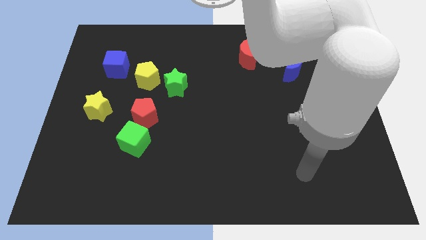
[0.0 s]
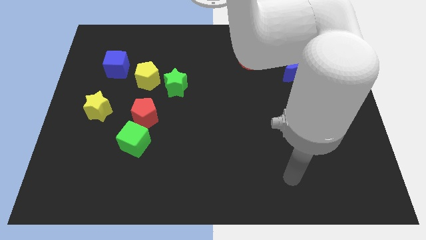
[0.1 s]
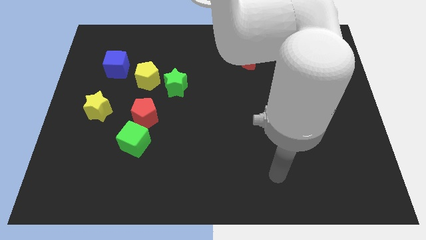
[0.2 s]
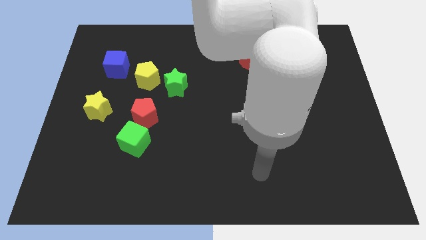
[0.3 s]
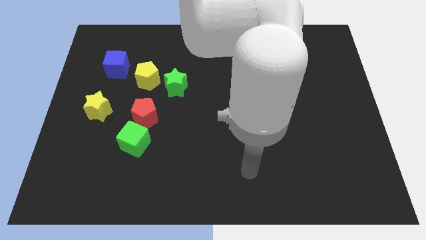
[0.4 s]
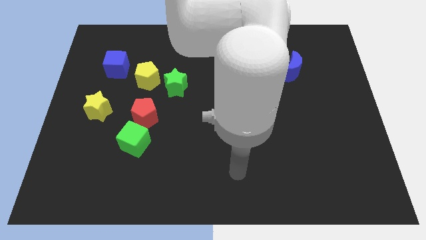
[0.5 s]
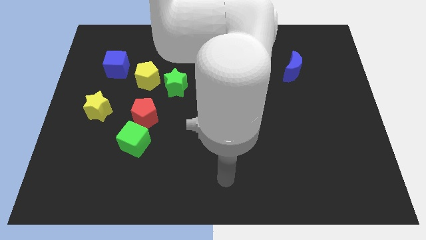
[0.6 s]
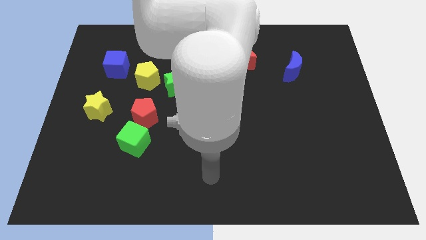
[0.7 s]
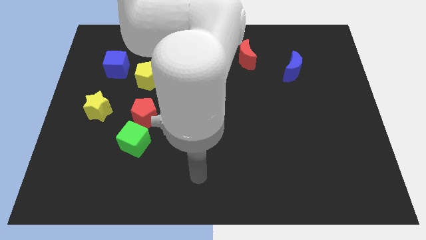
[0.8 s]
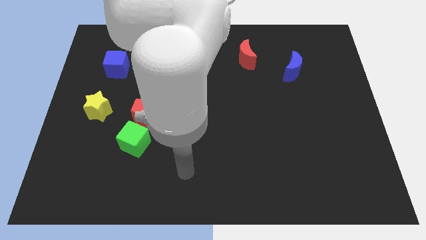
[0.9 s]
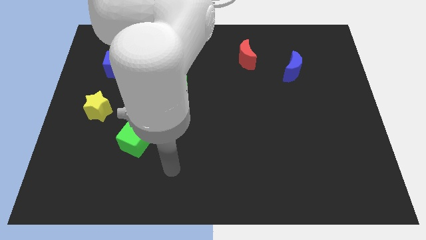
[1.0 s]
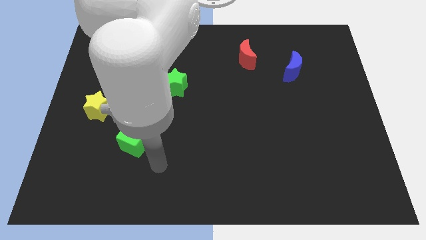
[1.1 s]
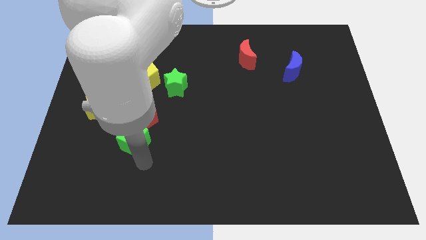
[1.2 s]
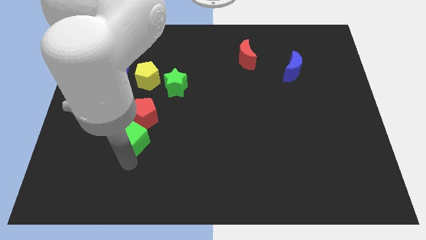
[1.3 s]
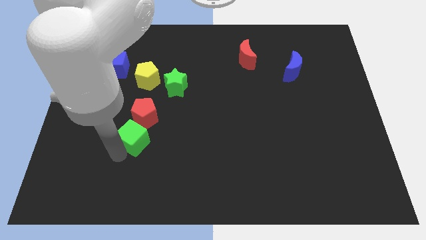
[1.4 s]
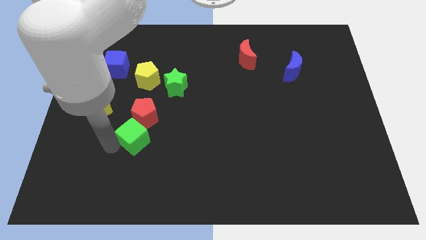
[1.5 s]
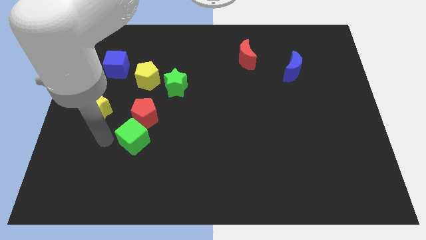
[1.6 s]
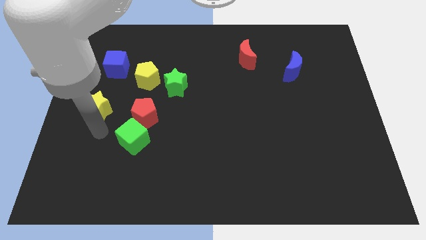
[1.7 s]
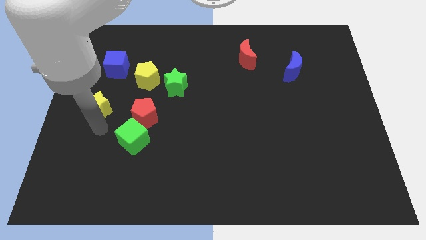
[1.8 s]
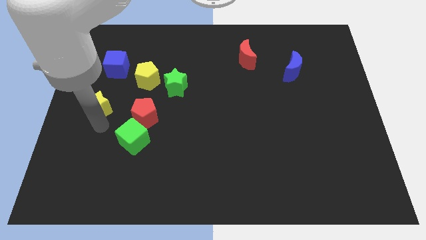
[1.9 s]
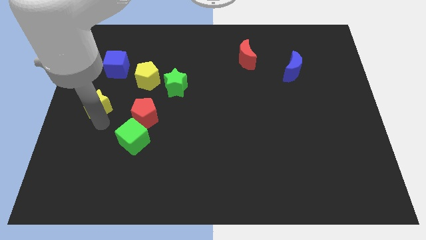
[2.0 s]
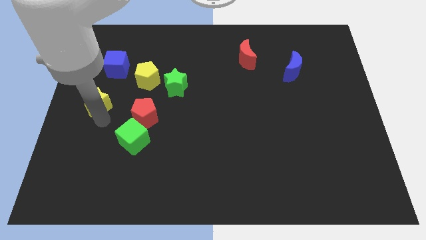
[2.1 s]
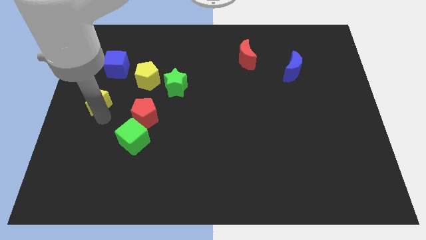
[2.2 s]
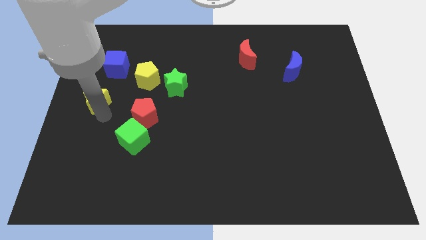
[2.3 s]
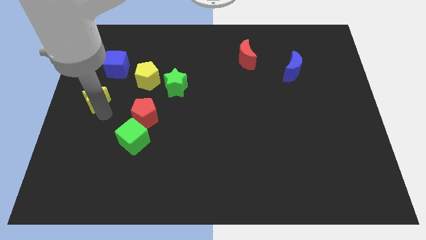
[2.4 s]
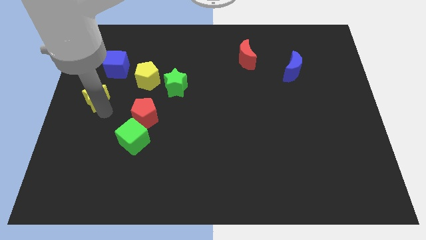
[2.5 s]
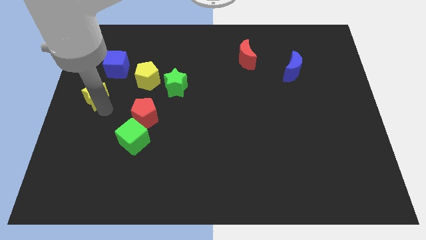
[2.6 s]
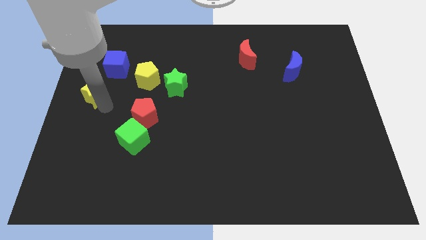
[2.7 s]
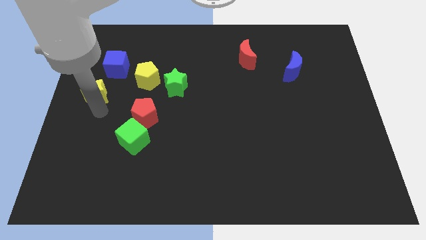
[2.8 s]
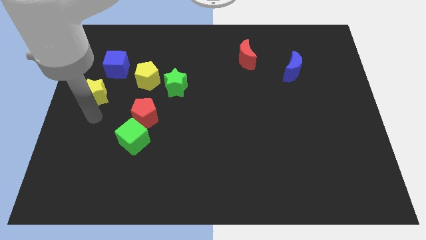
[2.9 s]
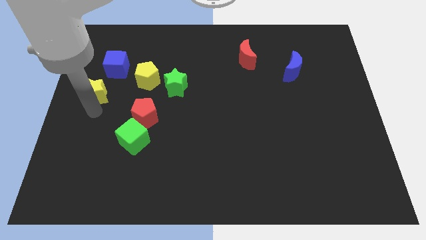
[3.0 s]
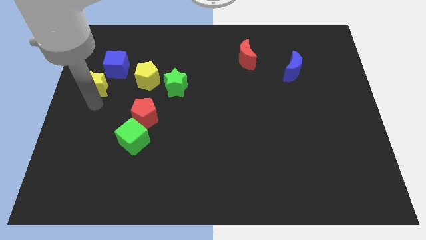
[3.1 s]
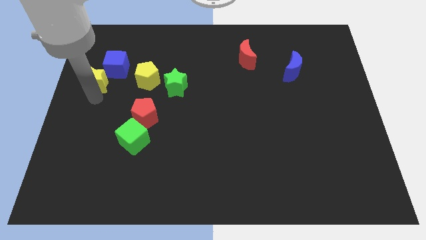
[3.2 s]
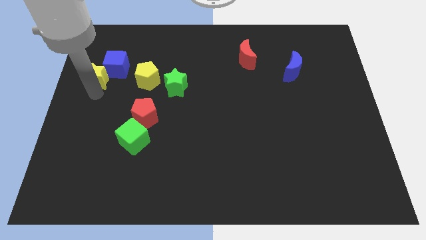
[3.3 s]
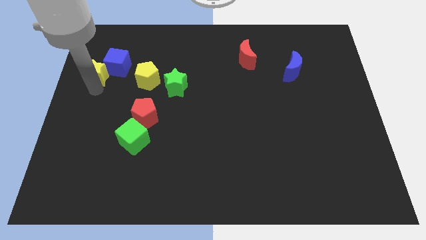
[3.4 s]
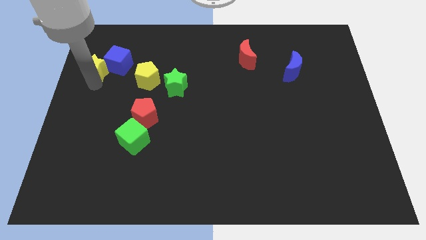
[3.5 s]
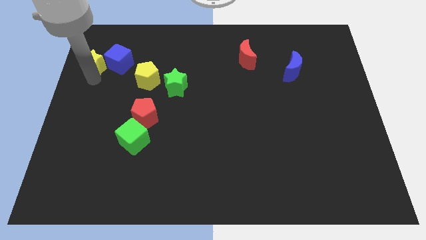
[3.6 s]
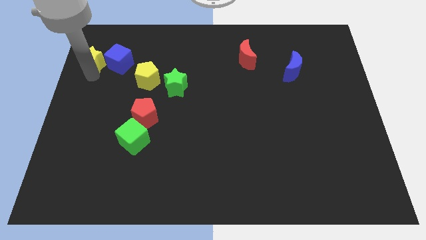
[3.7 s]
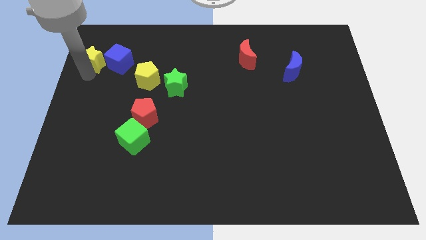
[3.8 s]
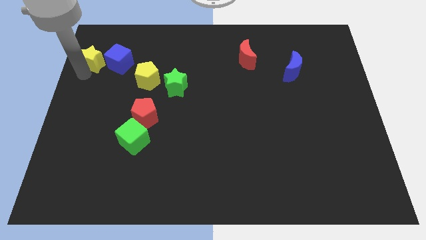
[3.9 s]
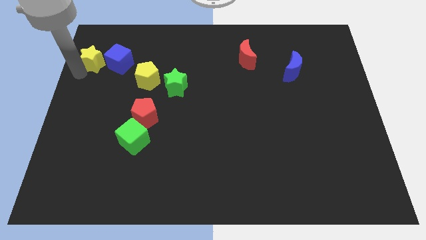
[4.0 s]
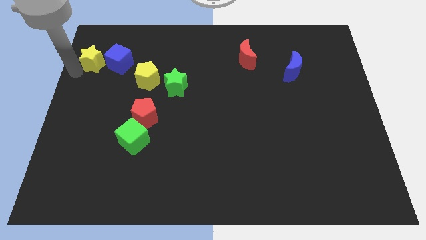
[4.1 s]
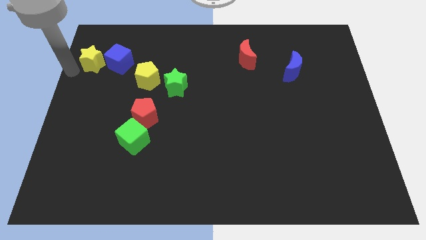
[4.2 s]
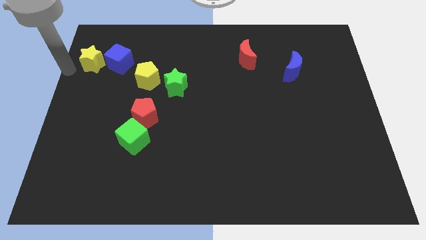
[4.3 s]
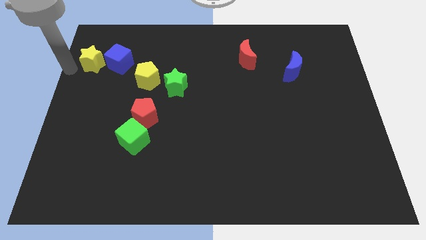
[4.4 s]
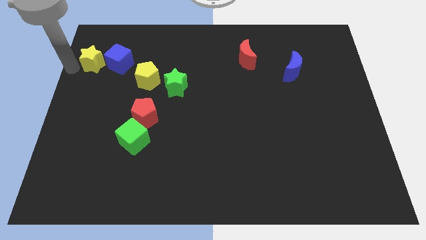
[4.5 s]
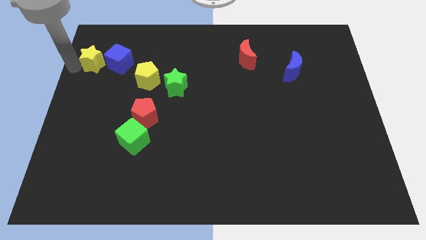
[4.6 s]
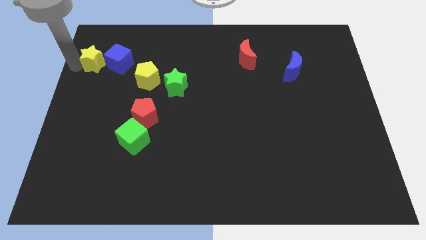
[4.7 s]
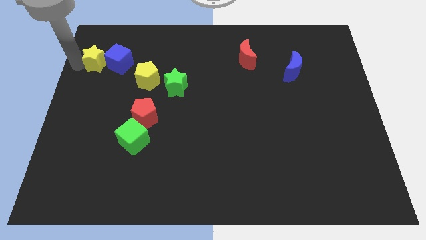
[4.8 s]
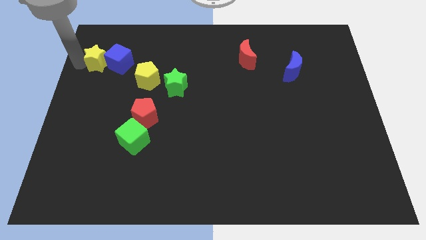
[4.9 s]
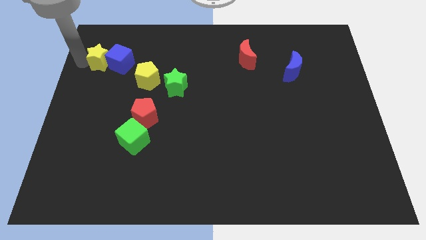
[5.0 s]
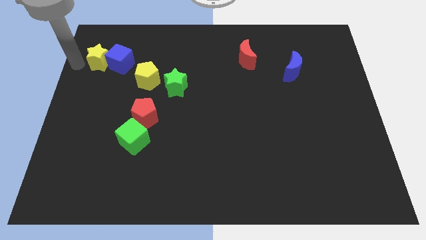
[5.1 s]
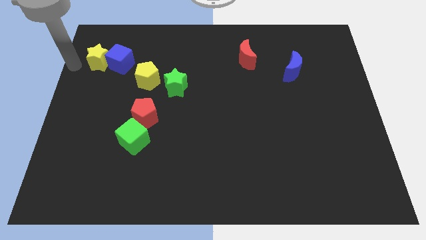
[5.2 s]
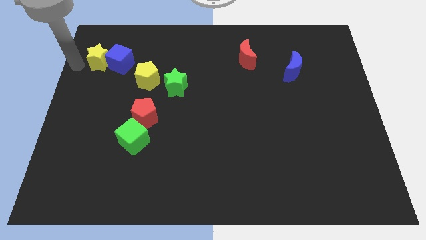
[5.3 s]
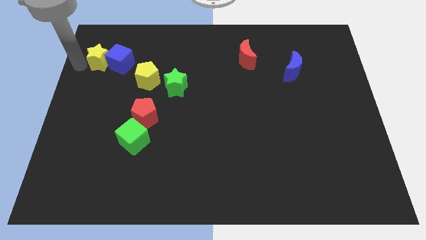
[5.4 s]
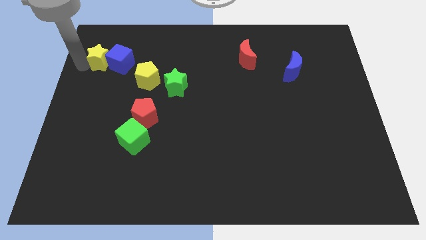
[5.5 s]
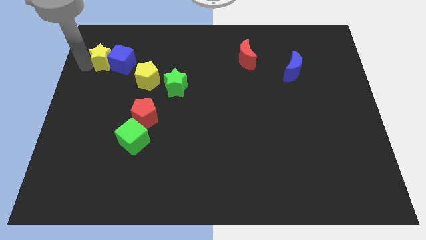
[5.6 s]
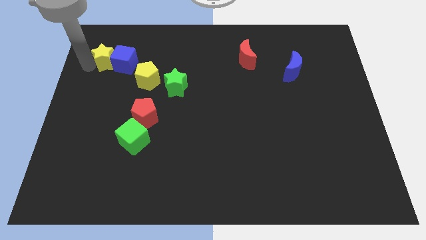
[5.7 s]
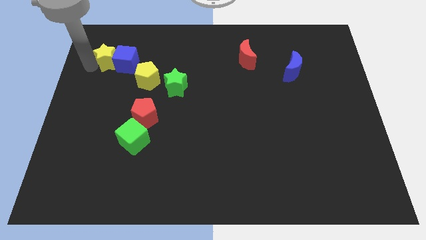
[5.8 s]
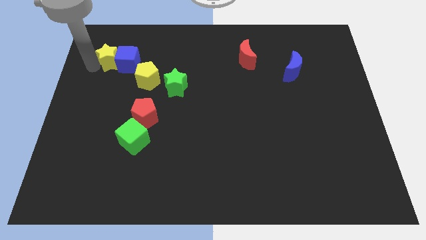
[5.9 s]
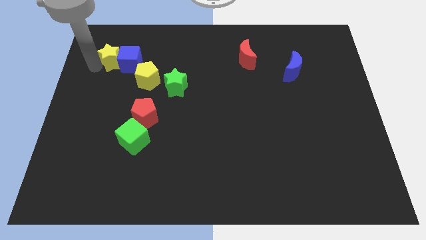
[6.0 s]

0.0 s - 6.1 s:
push the yellow star to the top left side of the yellow pentagon

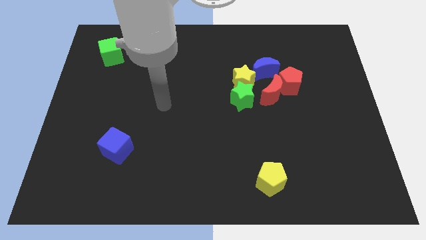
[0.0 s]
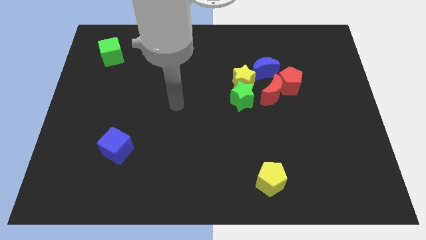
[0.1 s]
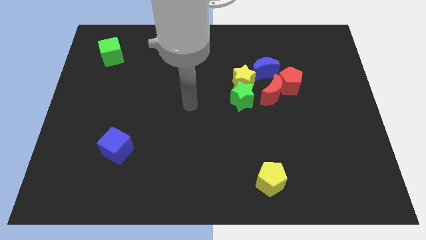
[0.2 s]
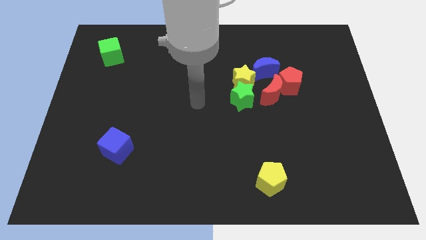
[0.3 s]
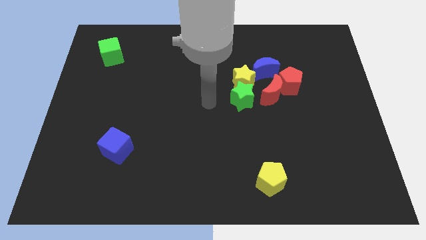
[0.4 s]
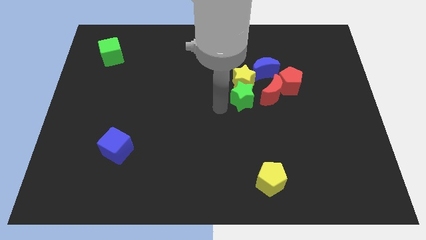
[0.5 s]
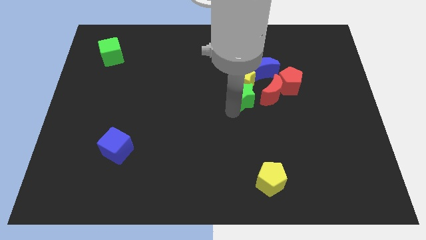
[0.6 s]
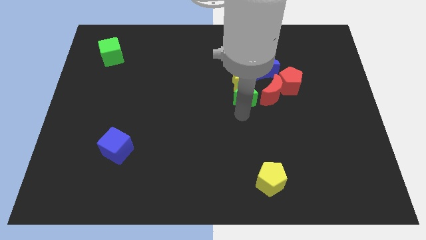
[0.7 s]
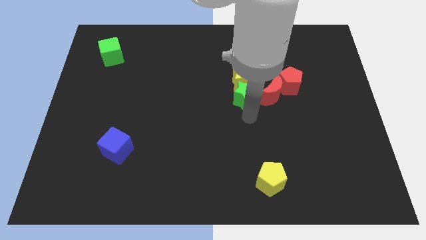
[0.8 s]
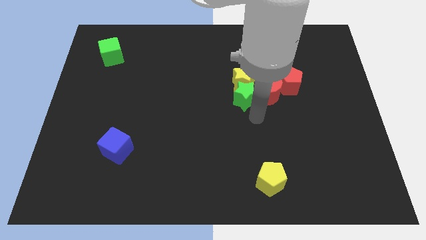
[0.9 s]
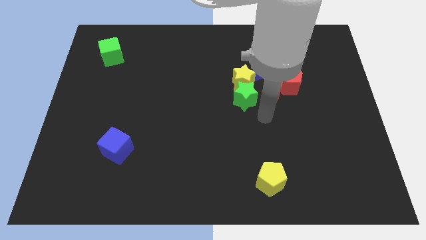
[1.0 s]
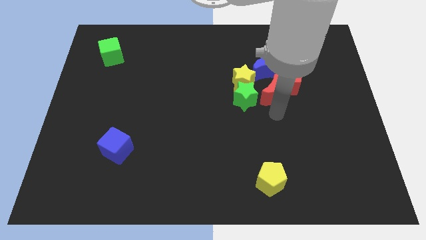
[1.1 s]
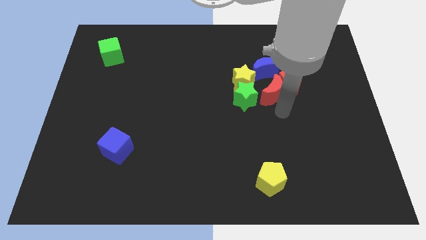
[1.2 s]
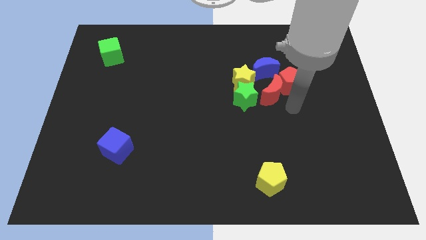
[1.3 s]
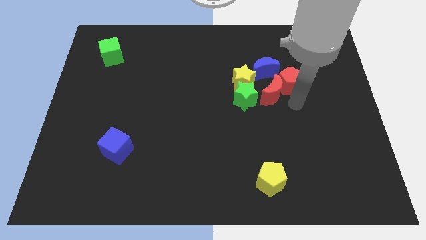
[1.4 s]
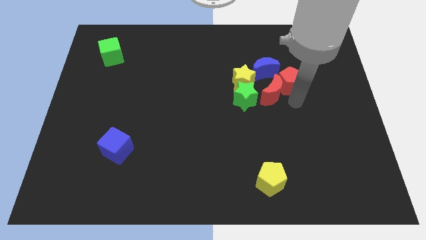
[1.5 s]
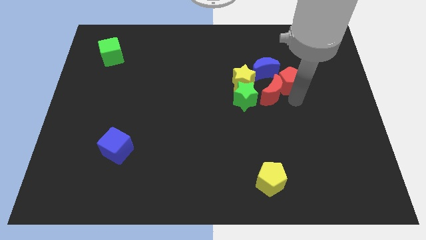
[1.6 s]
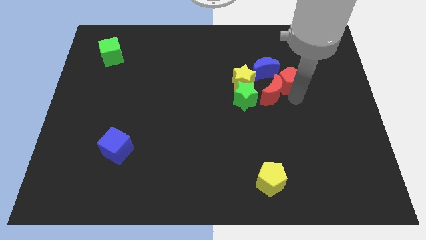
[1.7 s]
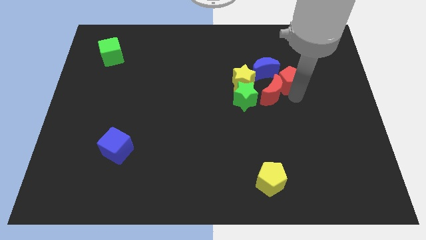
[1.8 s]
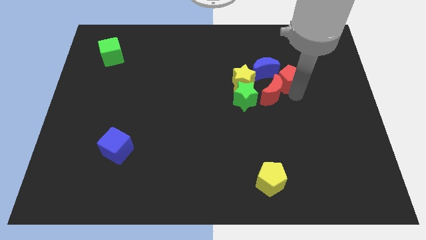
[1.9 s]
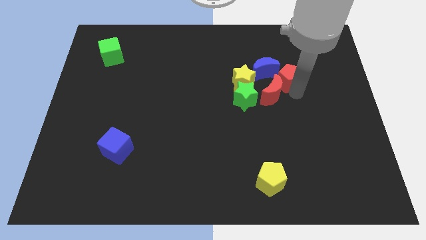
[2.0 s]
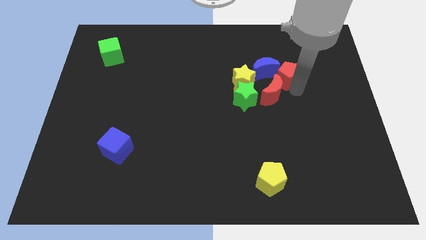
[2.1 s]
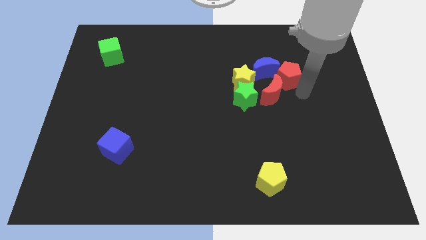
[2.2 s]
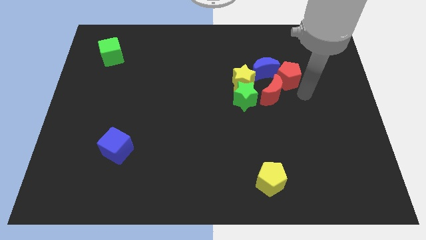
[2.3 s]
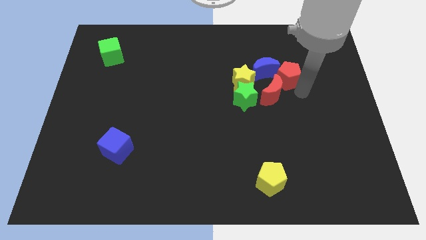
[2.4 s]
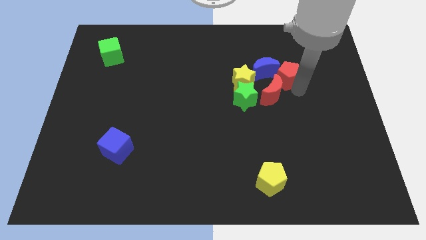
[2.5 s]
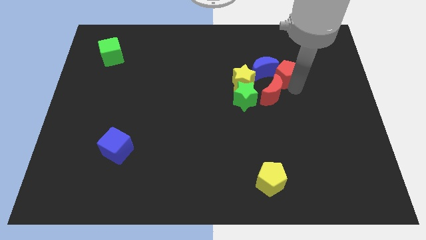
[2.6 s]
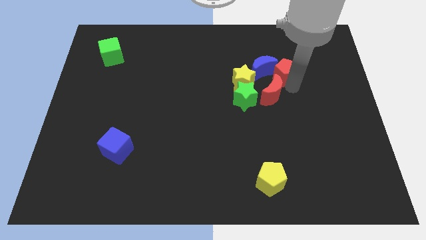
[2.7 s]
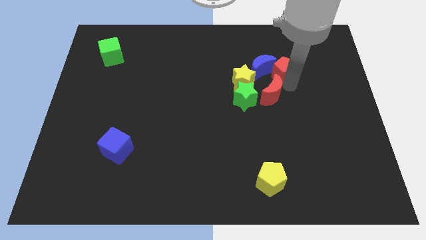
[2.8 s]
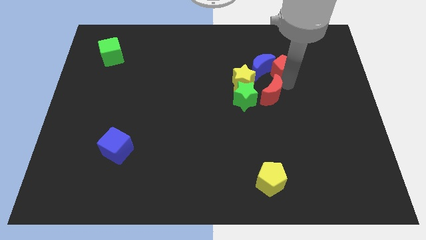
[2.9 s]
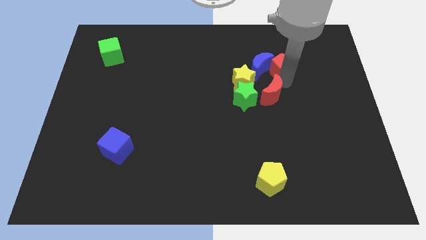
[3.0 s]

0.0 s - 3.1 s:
move the red pentagon to the top right side of the yellow star
